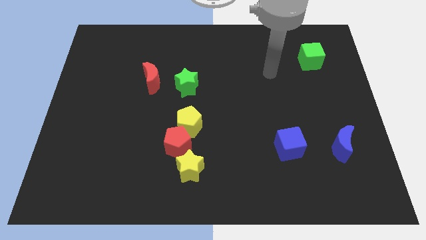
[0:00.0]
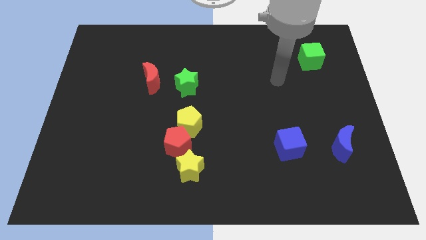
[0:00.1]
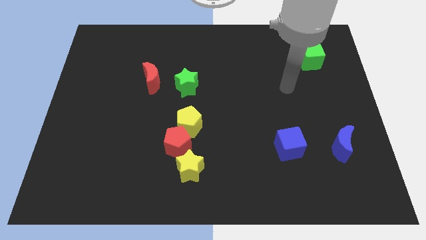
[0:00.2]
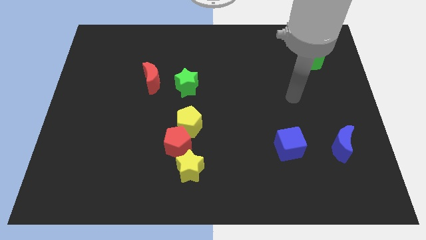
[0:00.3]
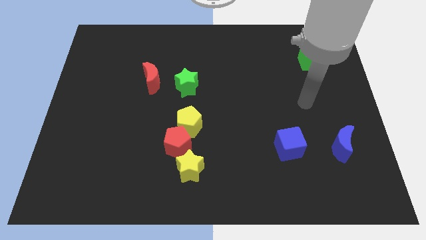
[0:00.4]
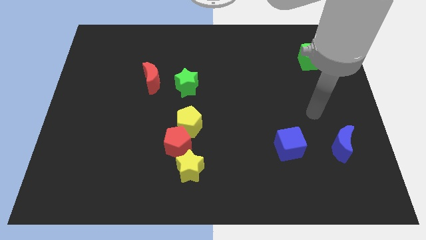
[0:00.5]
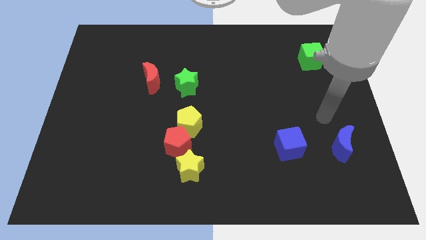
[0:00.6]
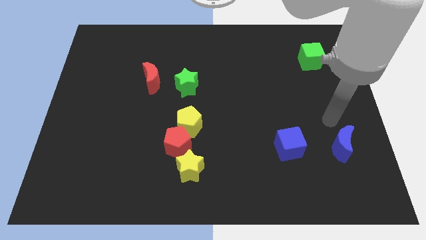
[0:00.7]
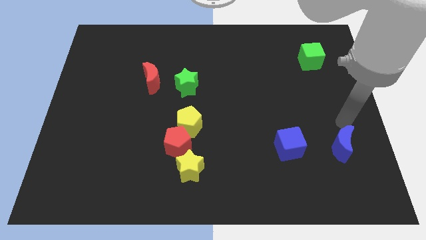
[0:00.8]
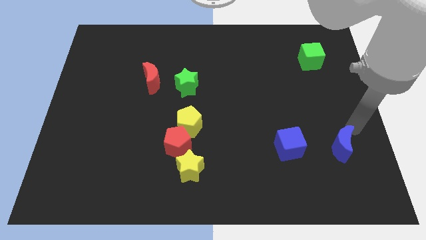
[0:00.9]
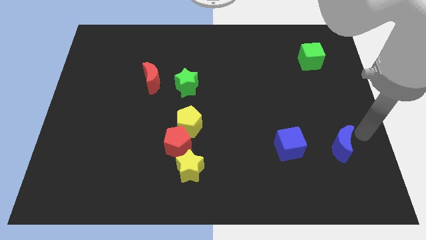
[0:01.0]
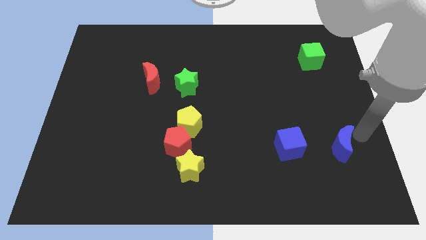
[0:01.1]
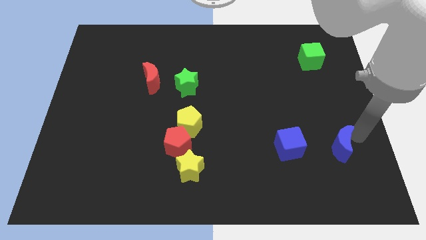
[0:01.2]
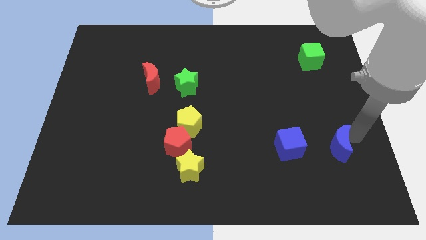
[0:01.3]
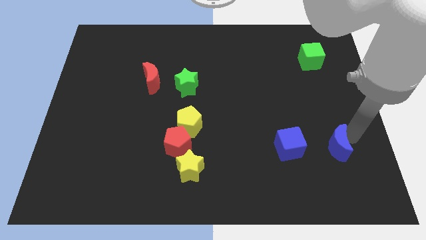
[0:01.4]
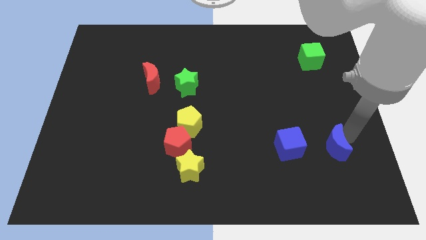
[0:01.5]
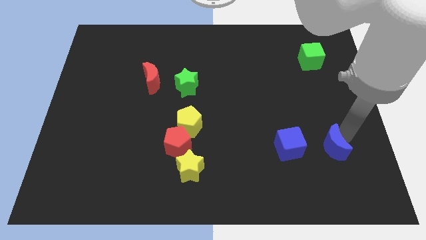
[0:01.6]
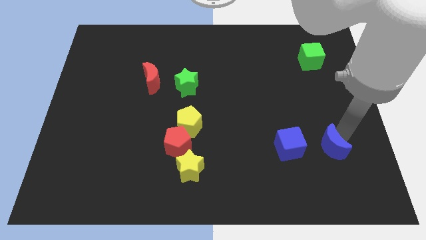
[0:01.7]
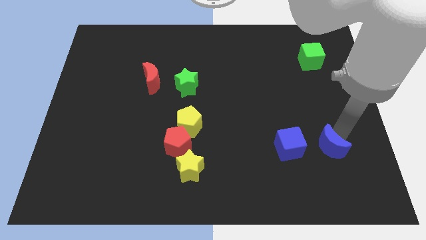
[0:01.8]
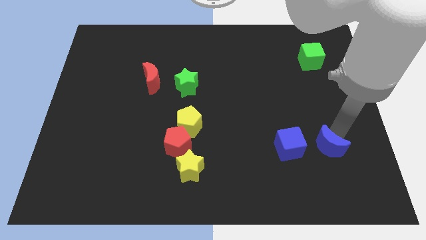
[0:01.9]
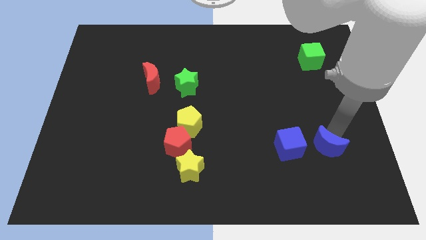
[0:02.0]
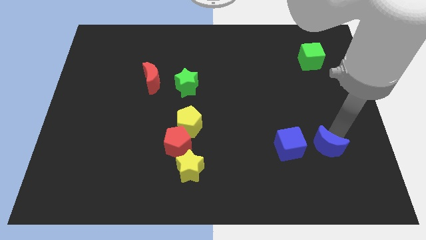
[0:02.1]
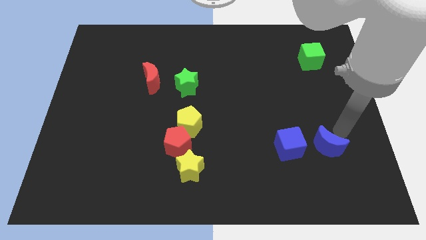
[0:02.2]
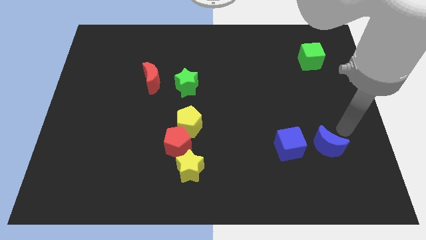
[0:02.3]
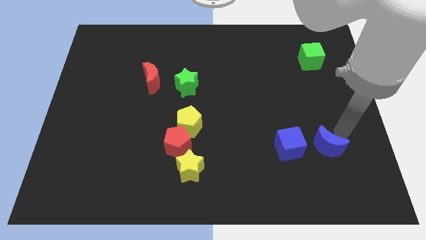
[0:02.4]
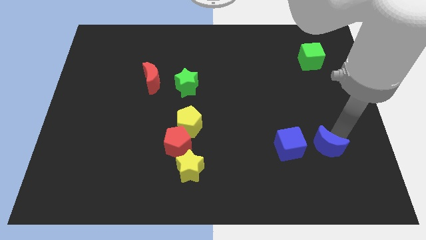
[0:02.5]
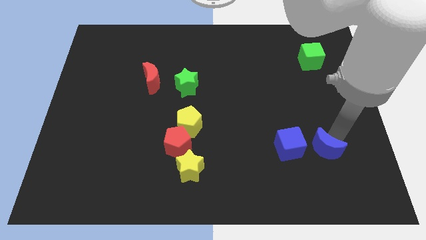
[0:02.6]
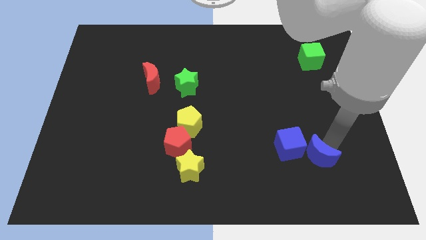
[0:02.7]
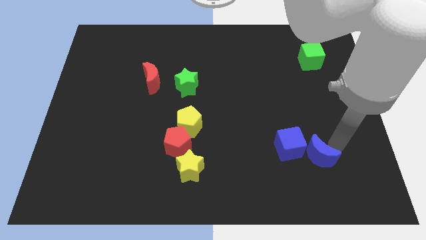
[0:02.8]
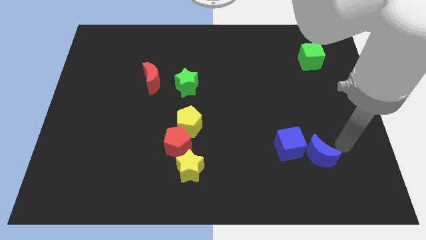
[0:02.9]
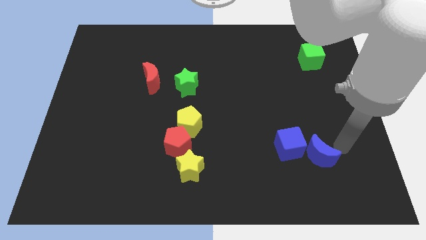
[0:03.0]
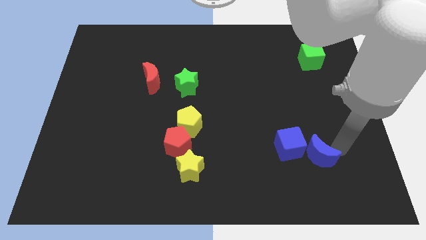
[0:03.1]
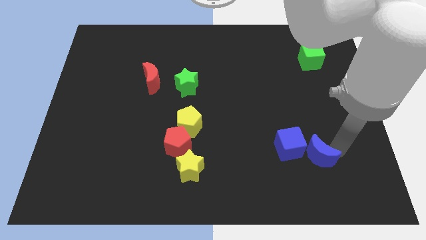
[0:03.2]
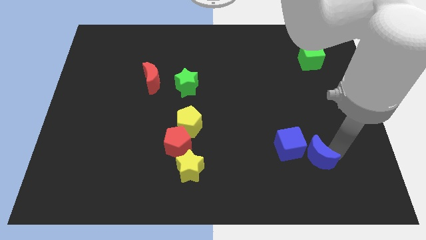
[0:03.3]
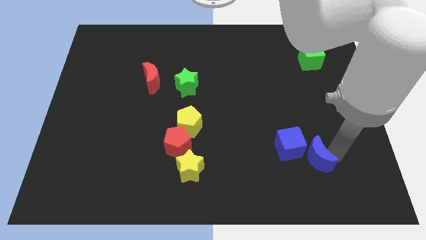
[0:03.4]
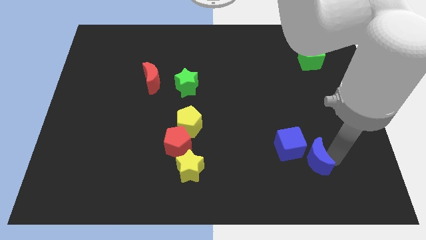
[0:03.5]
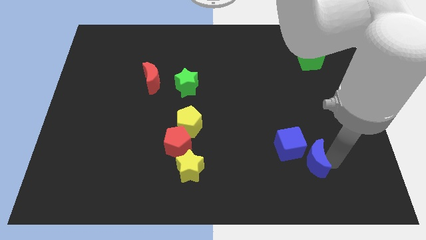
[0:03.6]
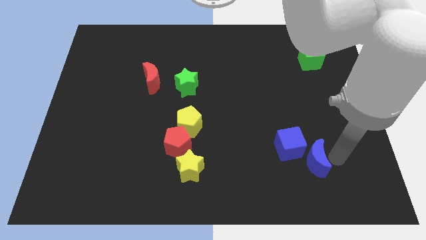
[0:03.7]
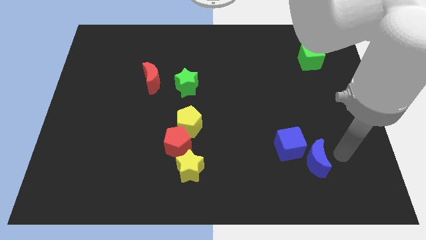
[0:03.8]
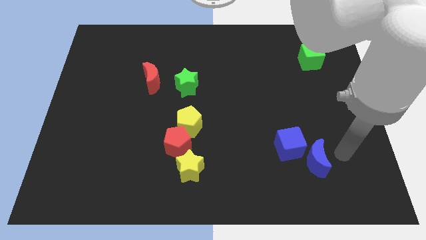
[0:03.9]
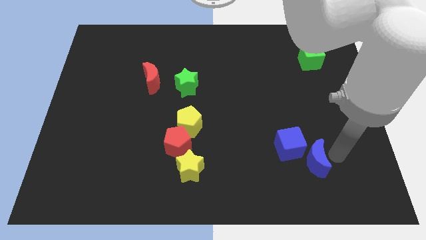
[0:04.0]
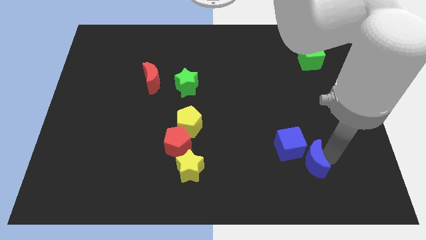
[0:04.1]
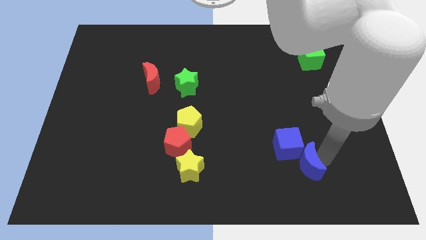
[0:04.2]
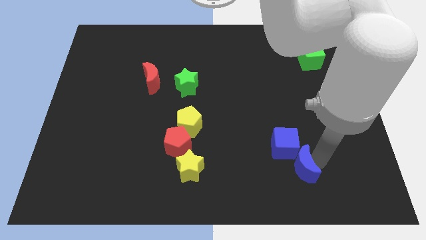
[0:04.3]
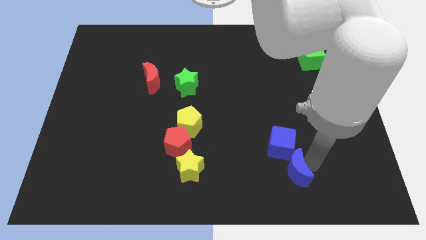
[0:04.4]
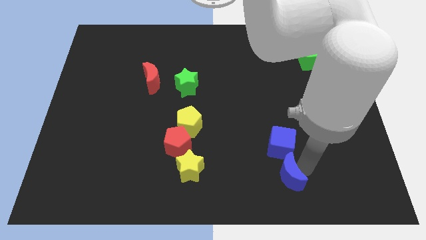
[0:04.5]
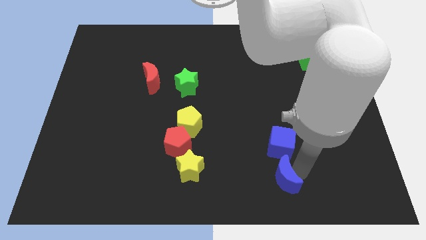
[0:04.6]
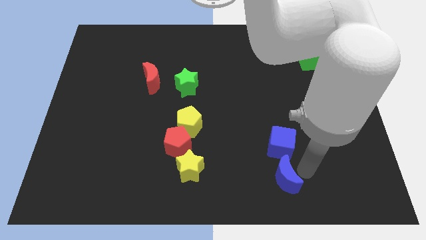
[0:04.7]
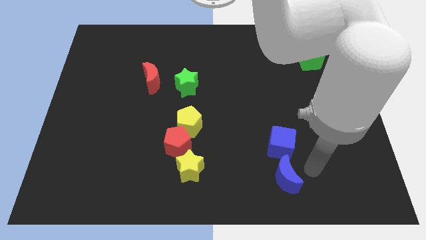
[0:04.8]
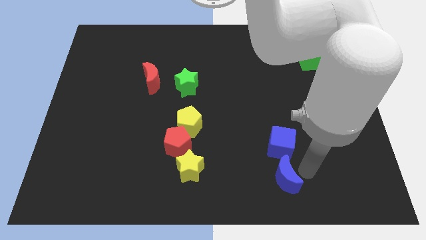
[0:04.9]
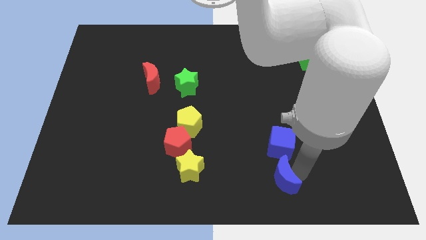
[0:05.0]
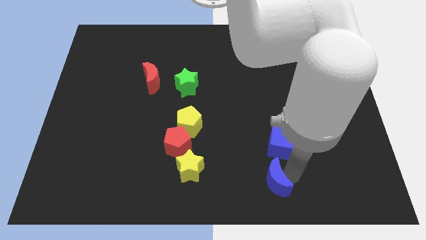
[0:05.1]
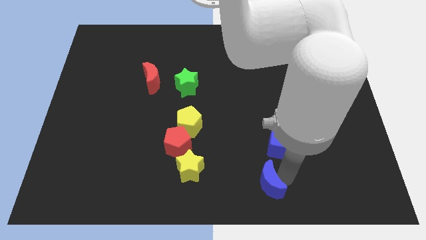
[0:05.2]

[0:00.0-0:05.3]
move the blue moon to the bottom side

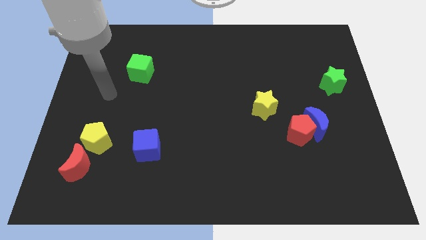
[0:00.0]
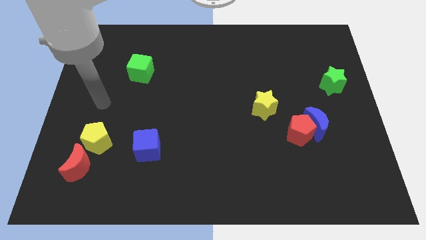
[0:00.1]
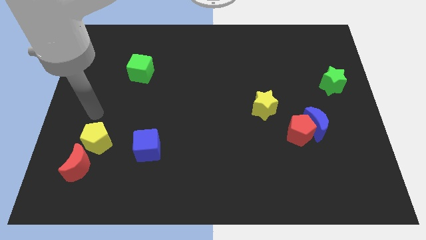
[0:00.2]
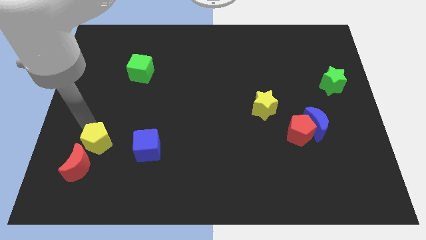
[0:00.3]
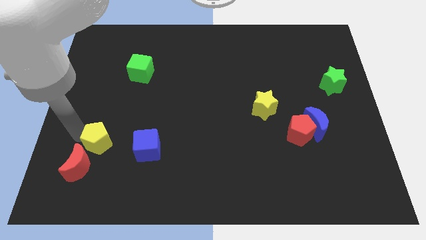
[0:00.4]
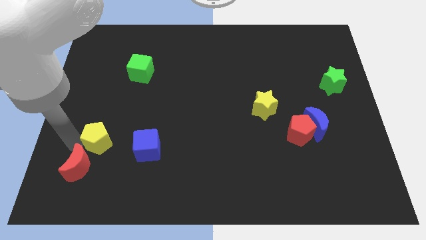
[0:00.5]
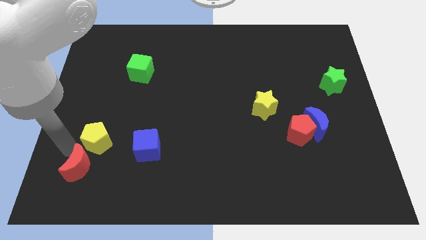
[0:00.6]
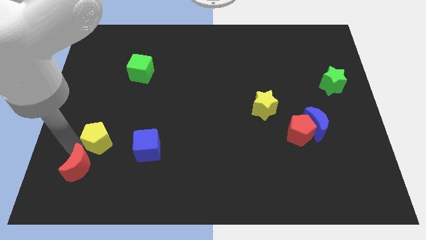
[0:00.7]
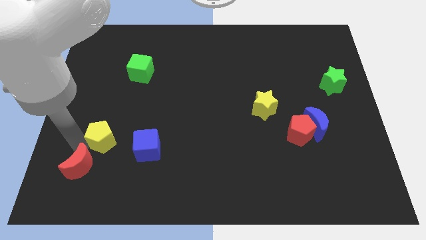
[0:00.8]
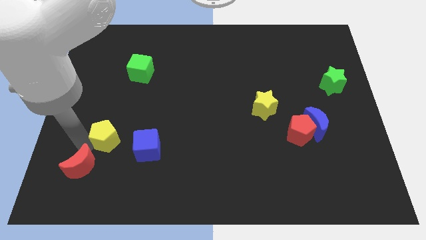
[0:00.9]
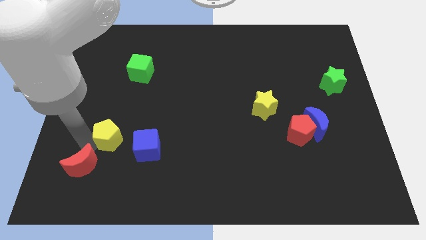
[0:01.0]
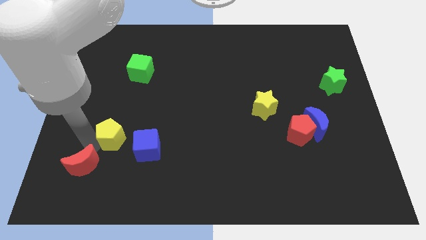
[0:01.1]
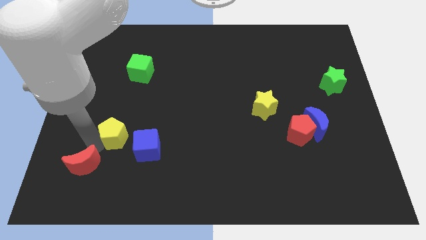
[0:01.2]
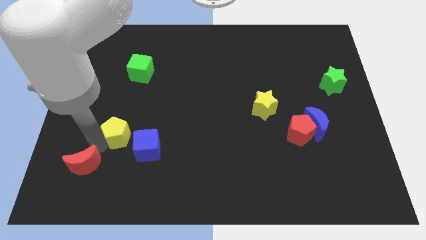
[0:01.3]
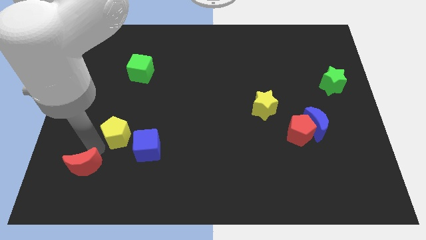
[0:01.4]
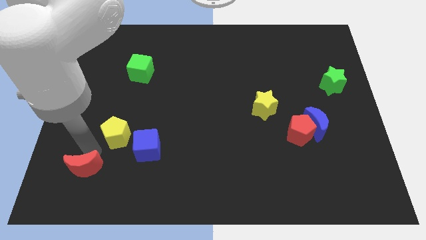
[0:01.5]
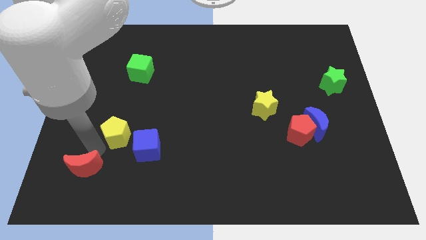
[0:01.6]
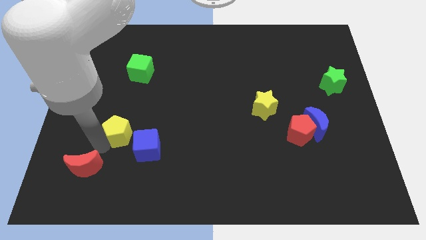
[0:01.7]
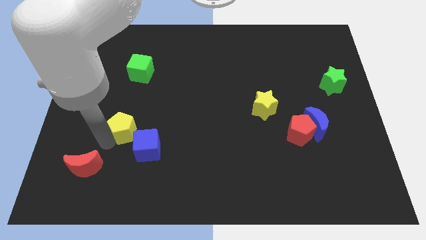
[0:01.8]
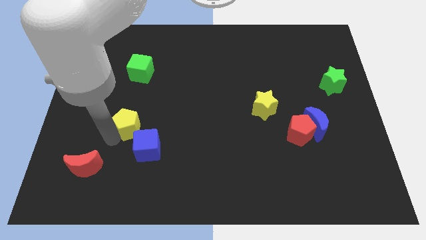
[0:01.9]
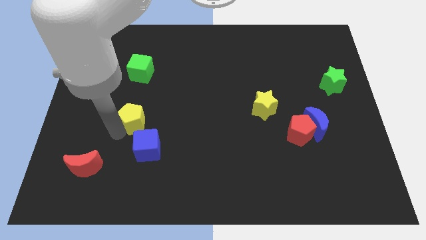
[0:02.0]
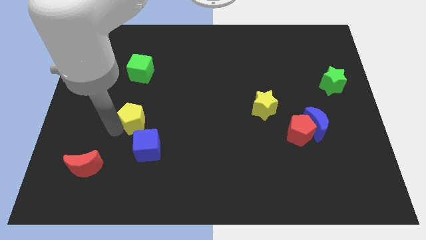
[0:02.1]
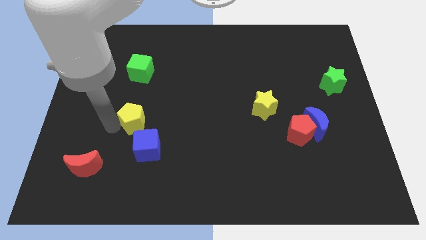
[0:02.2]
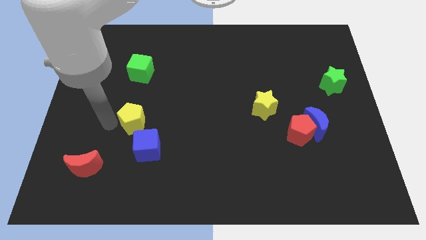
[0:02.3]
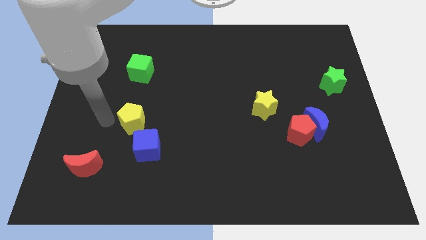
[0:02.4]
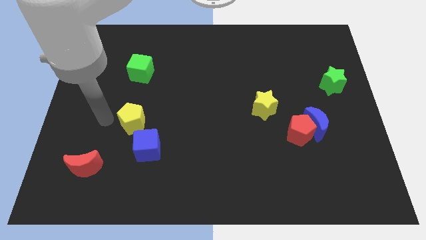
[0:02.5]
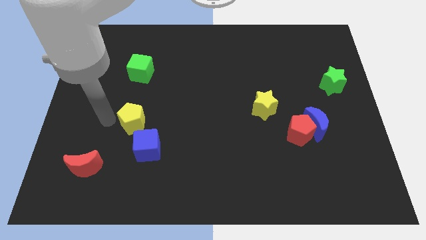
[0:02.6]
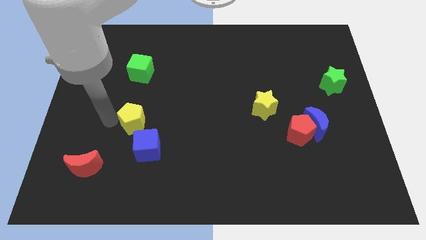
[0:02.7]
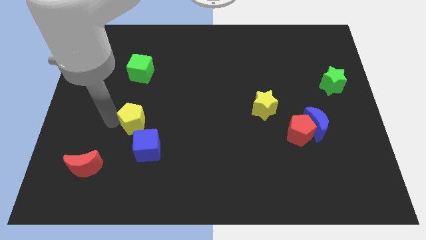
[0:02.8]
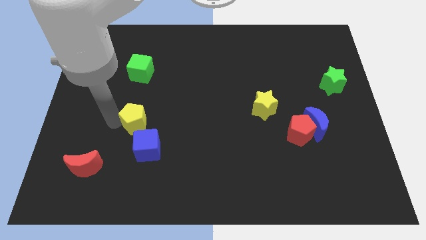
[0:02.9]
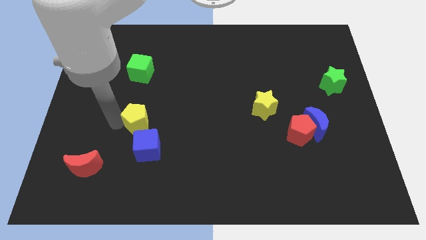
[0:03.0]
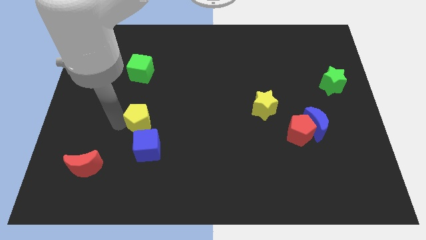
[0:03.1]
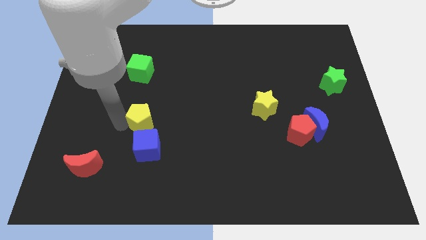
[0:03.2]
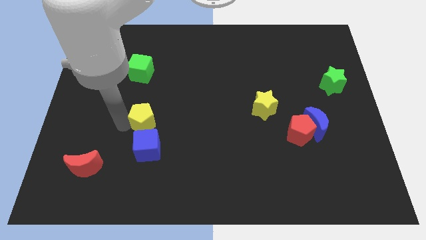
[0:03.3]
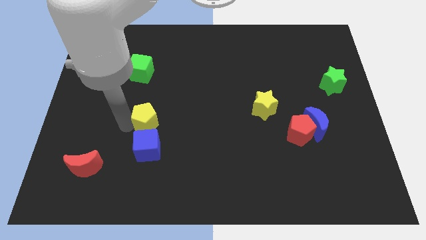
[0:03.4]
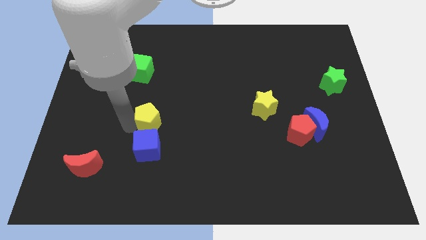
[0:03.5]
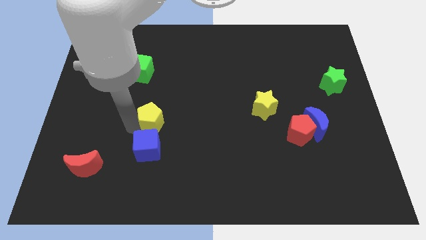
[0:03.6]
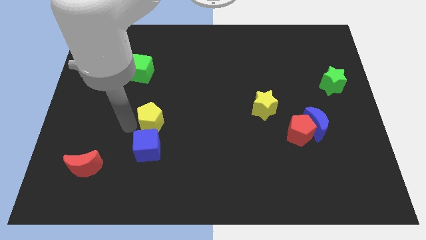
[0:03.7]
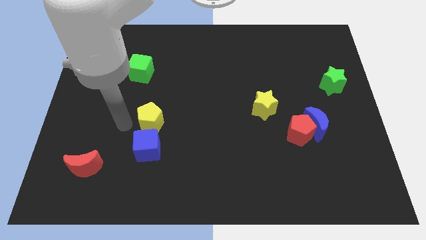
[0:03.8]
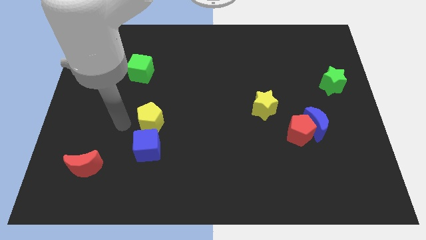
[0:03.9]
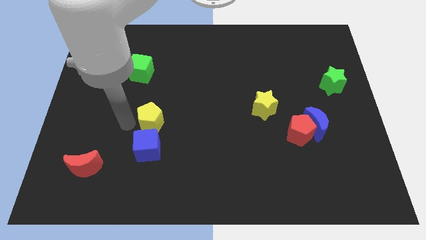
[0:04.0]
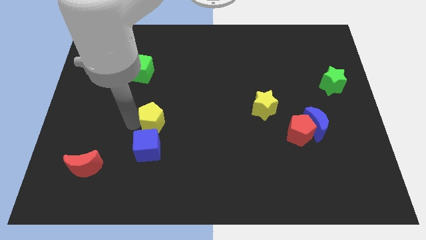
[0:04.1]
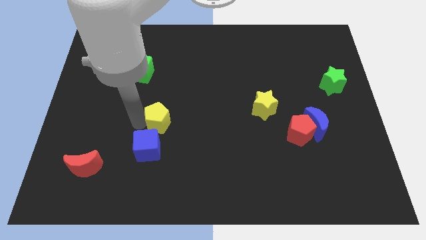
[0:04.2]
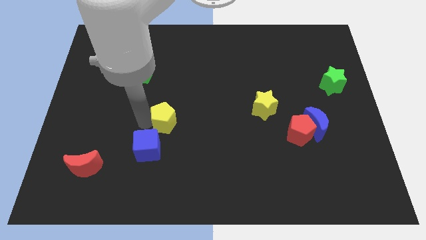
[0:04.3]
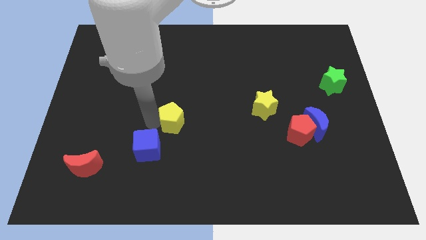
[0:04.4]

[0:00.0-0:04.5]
push the yellow pentagon to the center of the board
